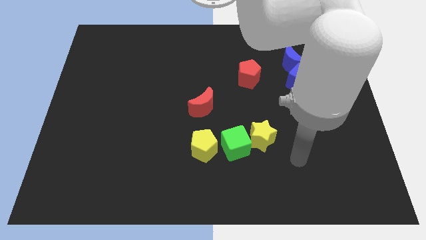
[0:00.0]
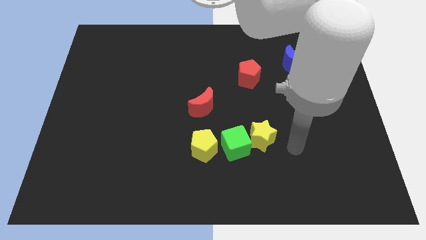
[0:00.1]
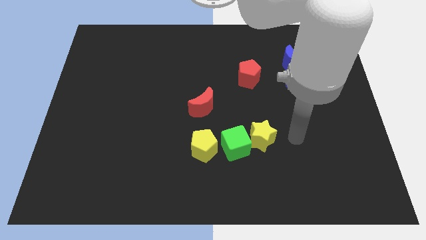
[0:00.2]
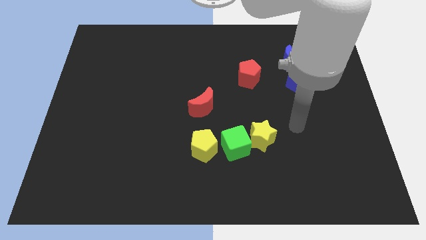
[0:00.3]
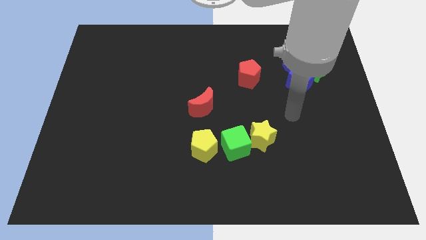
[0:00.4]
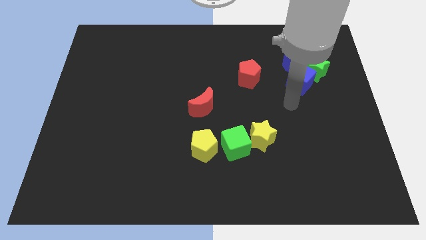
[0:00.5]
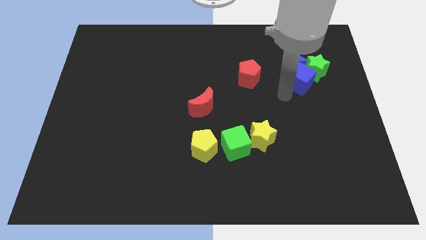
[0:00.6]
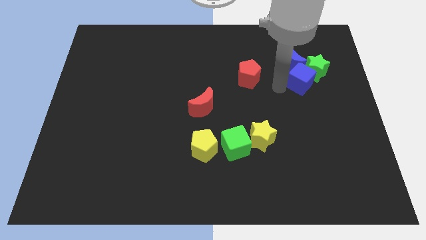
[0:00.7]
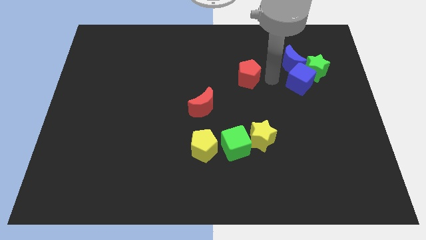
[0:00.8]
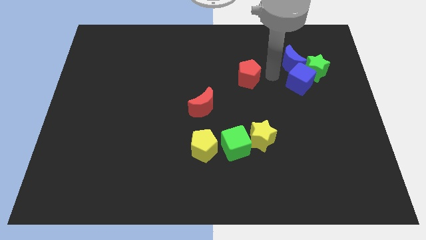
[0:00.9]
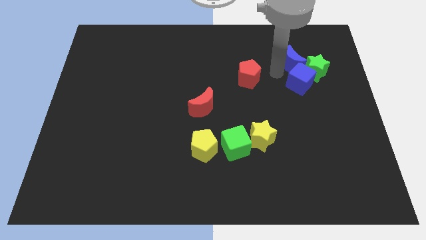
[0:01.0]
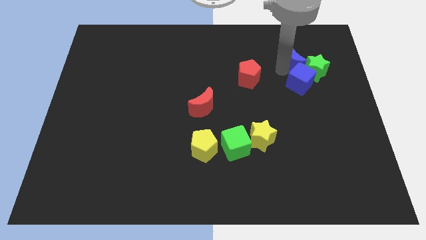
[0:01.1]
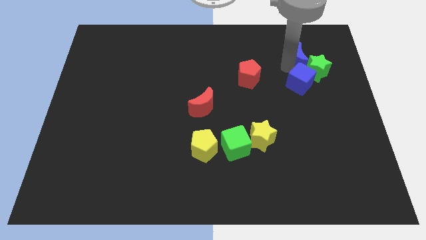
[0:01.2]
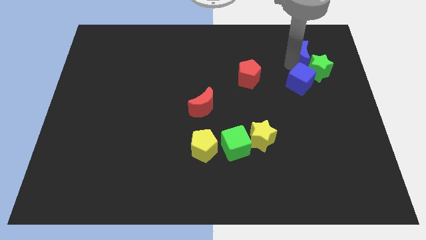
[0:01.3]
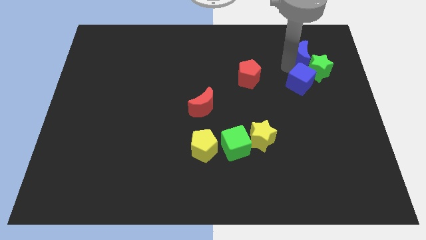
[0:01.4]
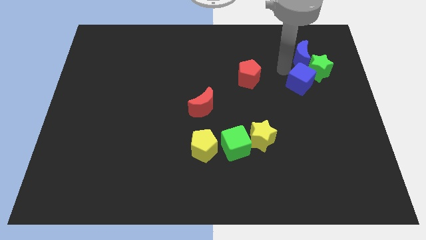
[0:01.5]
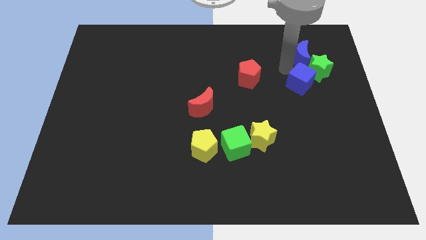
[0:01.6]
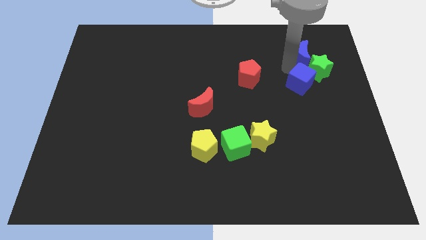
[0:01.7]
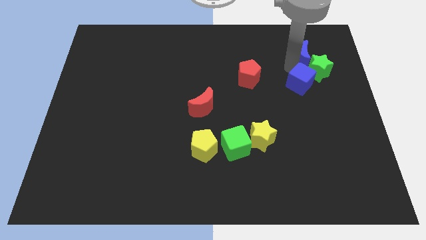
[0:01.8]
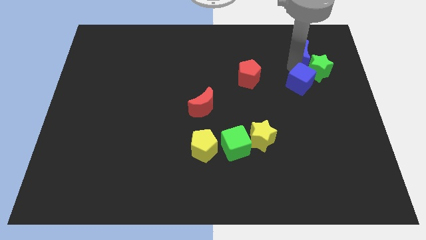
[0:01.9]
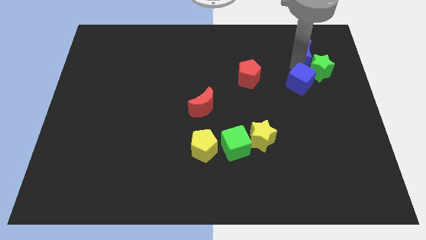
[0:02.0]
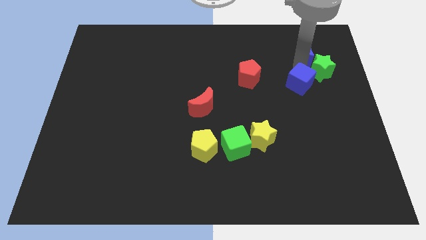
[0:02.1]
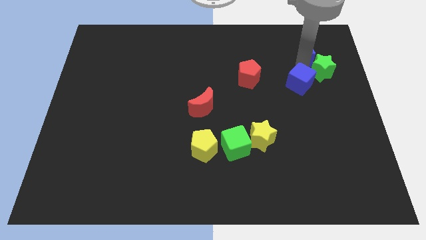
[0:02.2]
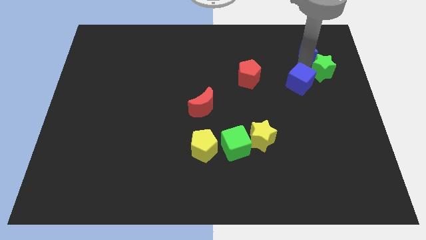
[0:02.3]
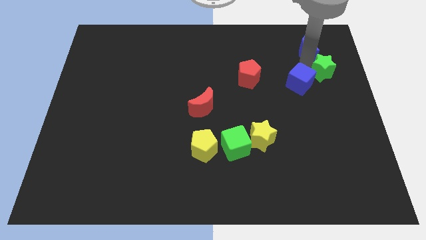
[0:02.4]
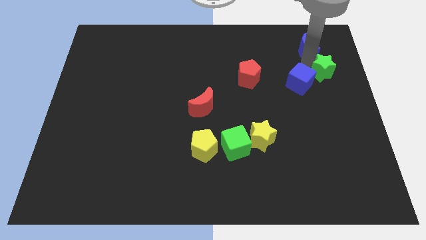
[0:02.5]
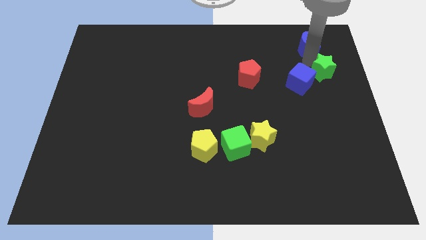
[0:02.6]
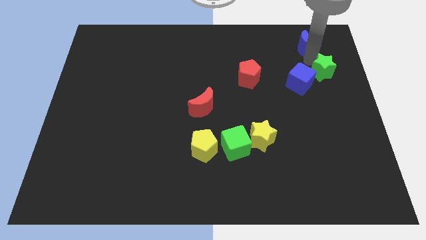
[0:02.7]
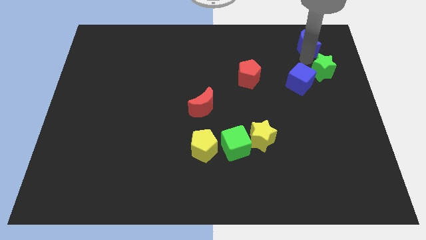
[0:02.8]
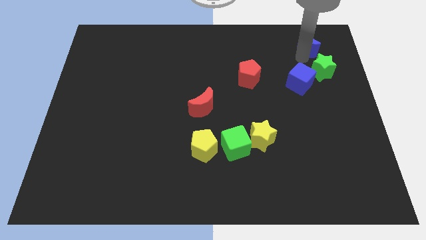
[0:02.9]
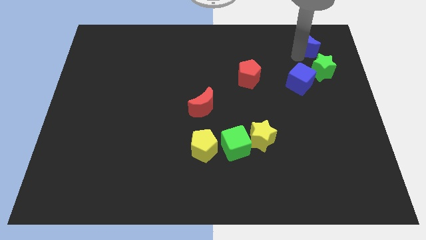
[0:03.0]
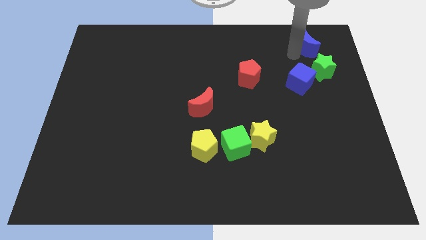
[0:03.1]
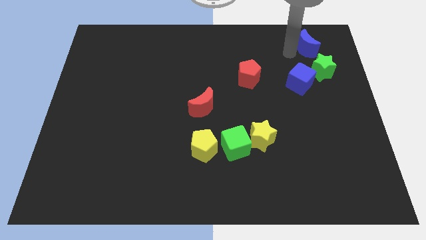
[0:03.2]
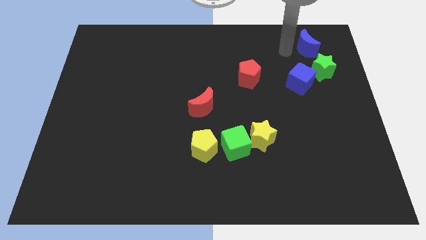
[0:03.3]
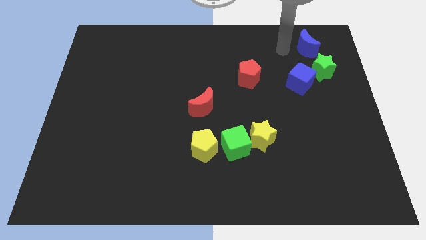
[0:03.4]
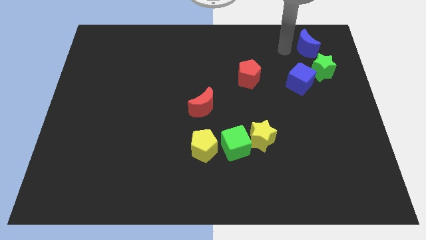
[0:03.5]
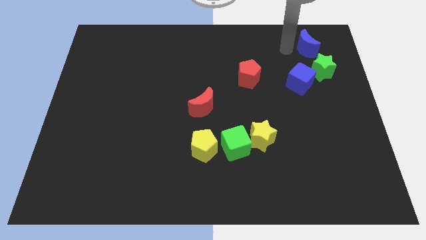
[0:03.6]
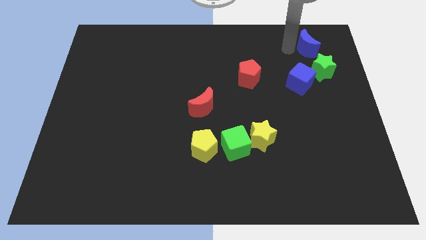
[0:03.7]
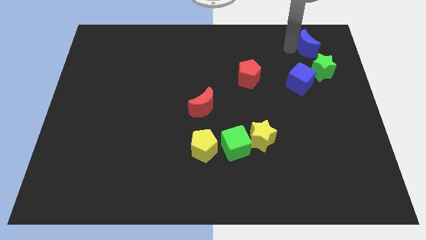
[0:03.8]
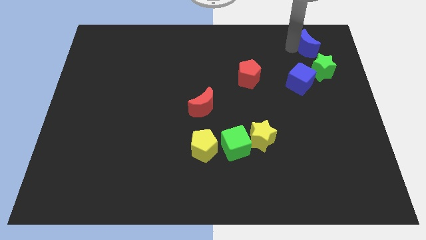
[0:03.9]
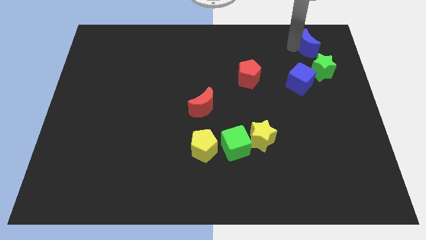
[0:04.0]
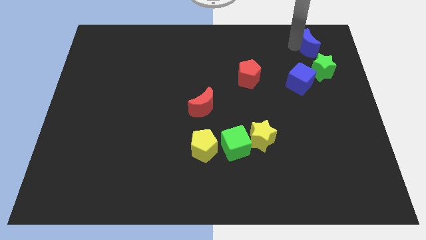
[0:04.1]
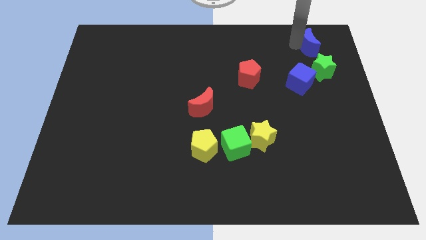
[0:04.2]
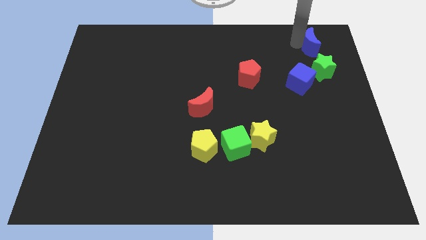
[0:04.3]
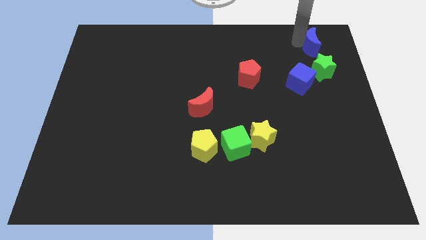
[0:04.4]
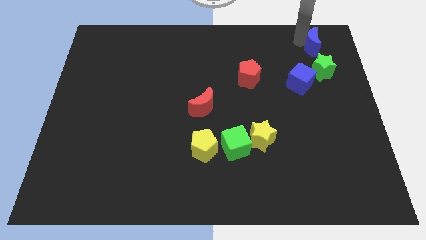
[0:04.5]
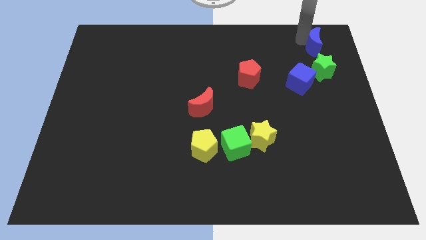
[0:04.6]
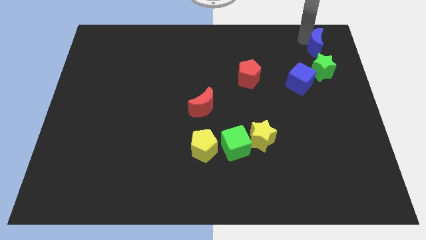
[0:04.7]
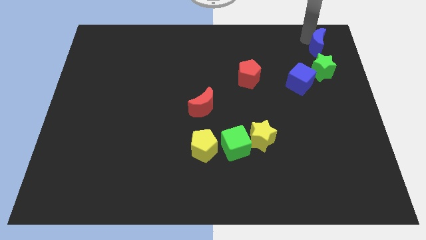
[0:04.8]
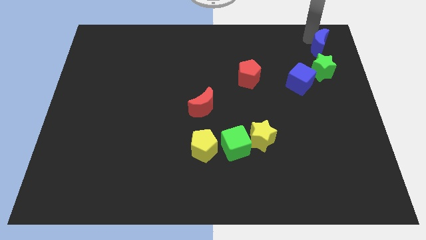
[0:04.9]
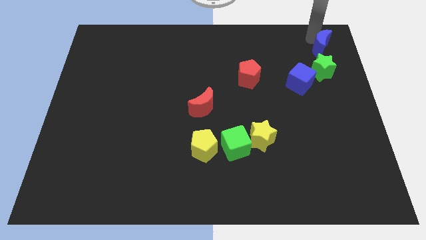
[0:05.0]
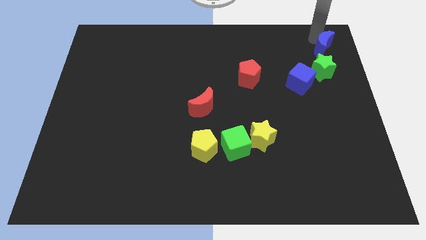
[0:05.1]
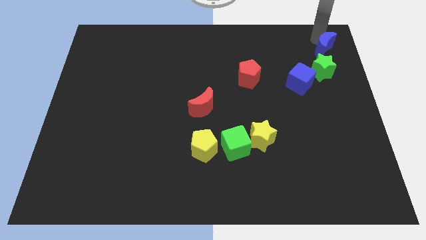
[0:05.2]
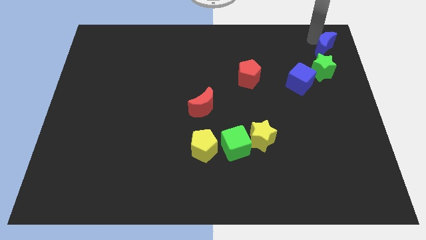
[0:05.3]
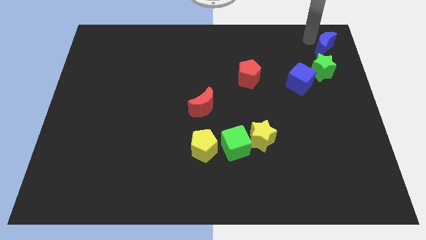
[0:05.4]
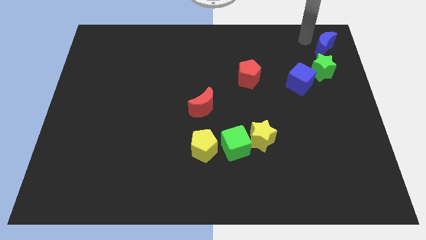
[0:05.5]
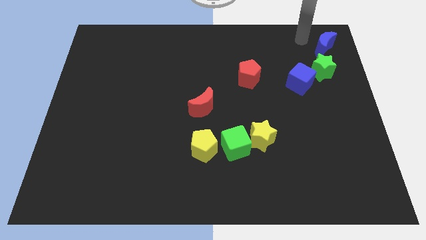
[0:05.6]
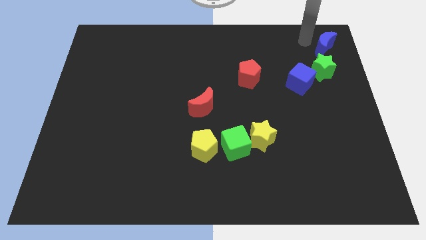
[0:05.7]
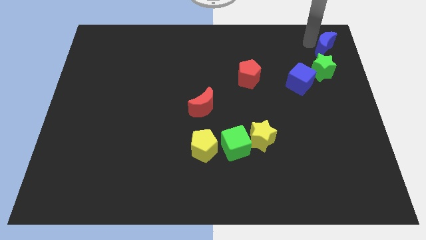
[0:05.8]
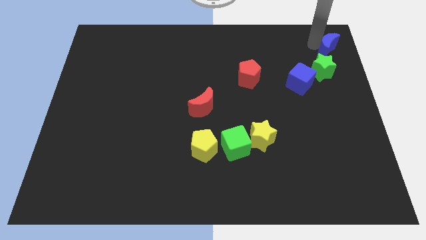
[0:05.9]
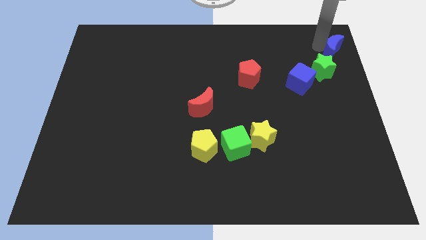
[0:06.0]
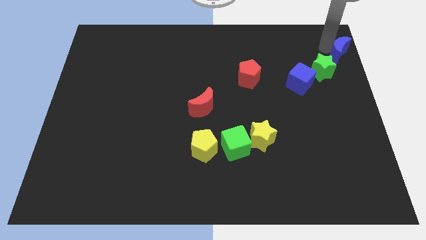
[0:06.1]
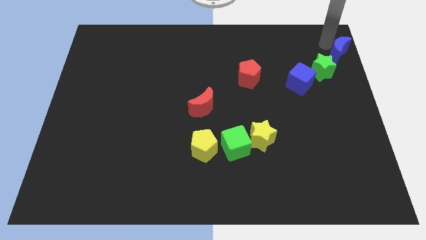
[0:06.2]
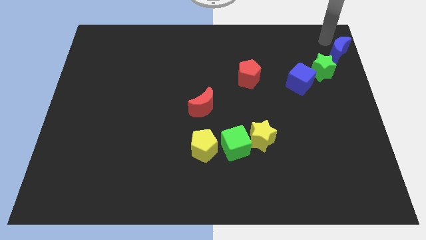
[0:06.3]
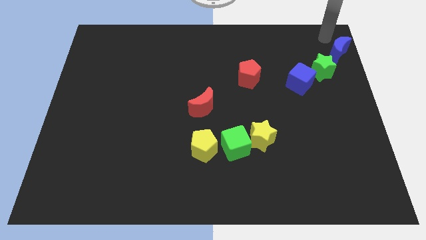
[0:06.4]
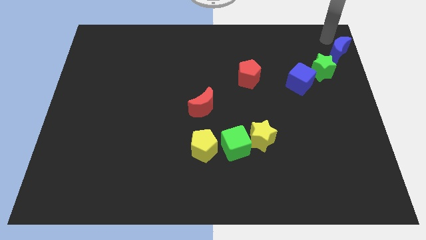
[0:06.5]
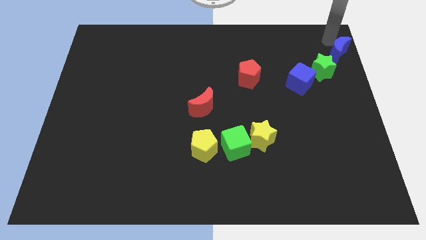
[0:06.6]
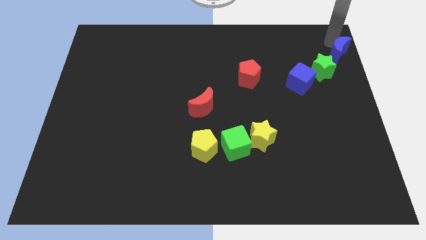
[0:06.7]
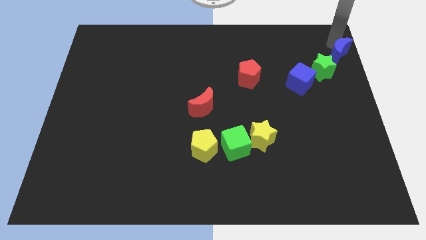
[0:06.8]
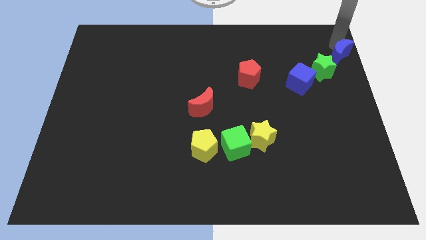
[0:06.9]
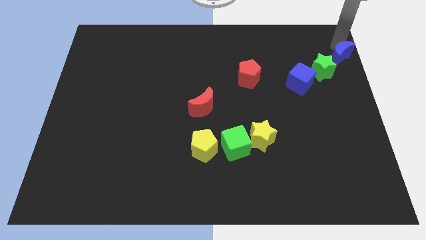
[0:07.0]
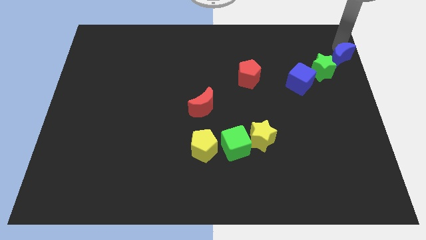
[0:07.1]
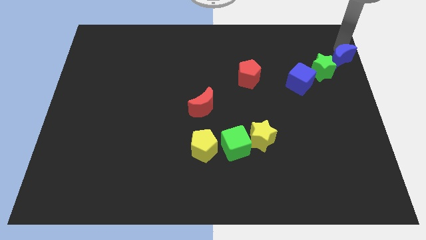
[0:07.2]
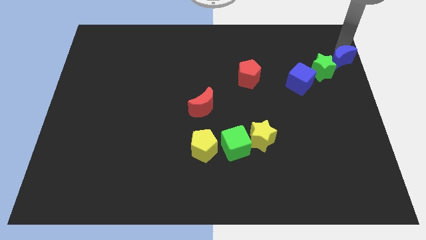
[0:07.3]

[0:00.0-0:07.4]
put the blue moon to the center right
